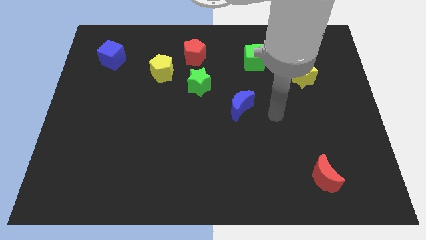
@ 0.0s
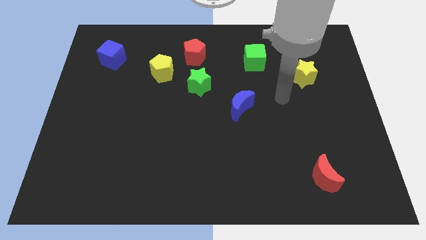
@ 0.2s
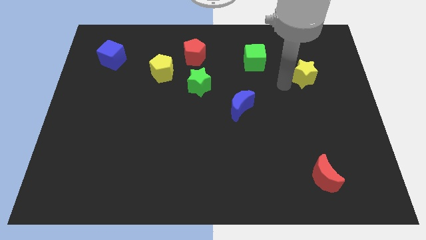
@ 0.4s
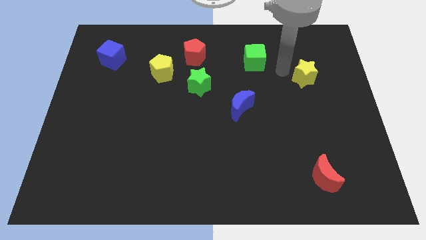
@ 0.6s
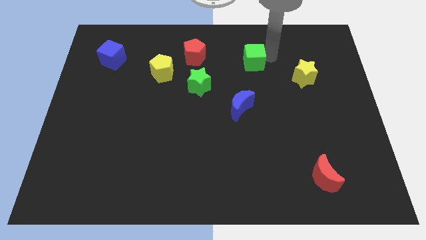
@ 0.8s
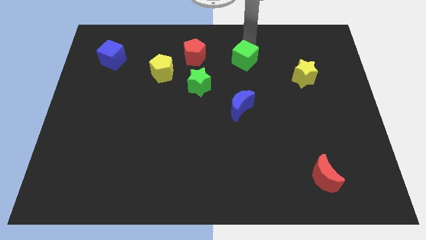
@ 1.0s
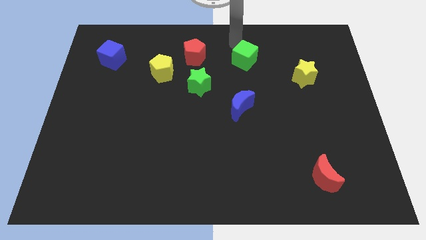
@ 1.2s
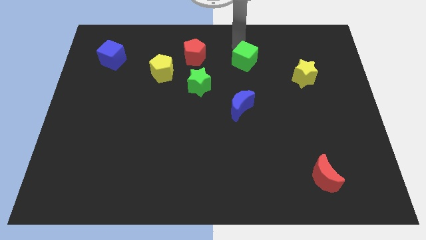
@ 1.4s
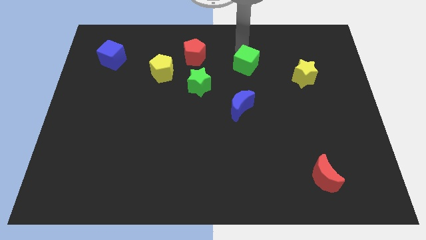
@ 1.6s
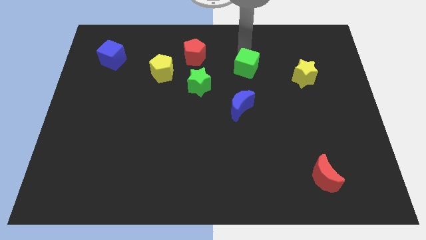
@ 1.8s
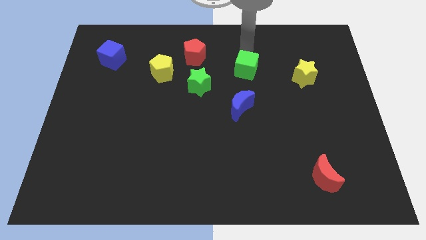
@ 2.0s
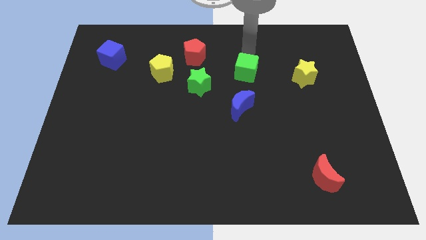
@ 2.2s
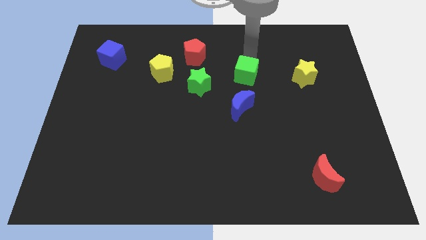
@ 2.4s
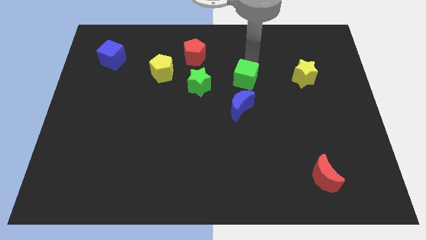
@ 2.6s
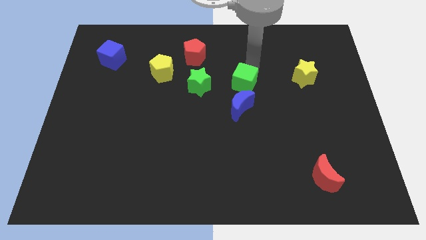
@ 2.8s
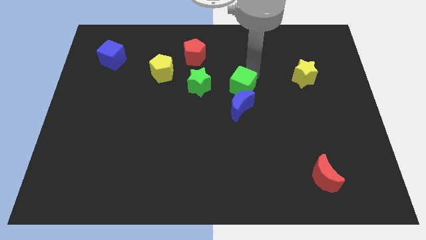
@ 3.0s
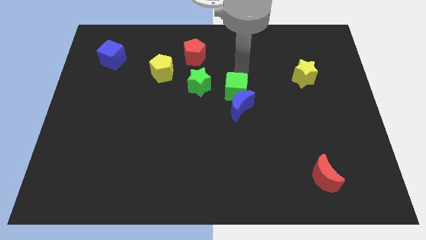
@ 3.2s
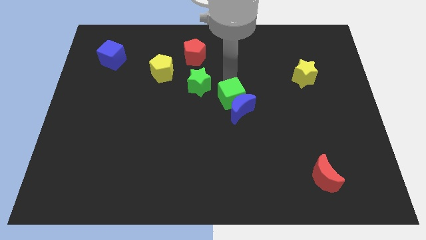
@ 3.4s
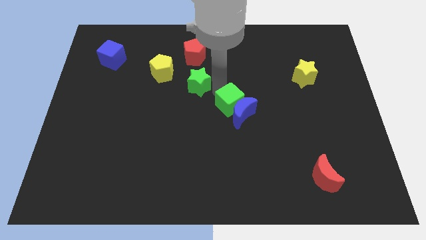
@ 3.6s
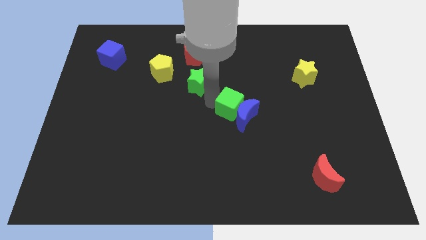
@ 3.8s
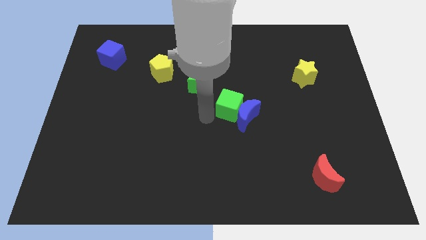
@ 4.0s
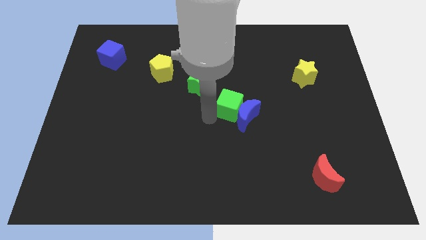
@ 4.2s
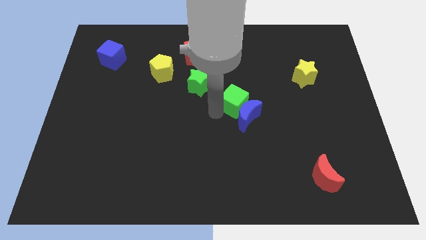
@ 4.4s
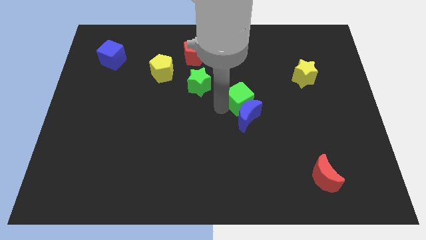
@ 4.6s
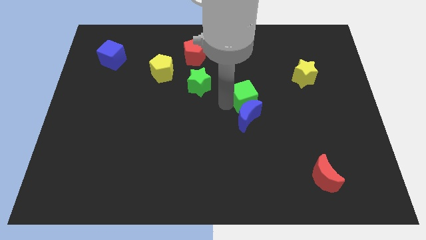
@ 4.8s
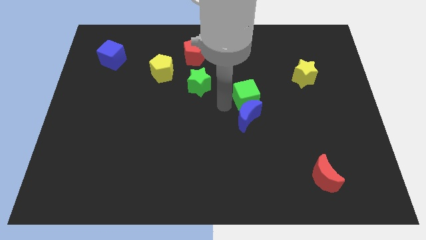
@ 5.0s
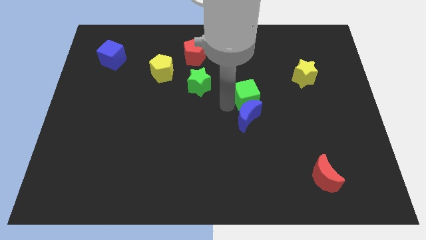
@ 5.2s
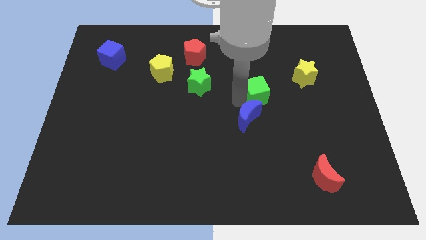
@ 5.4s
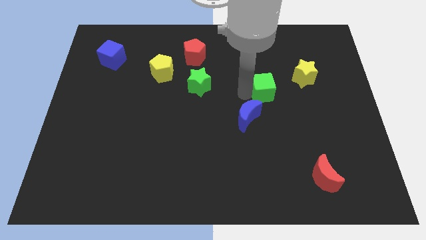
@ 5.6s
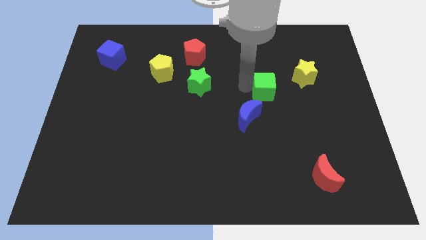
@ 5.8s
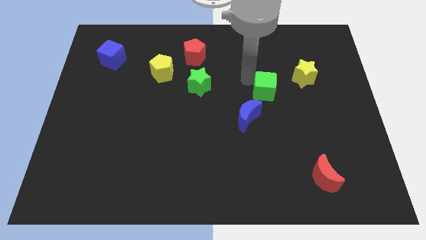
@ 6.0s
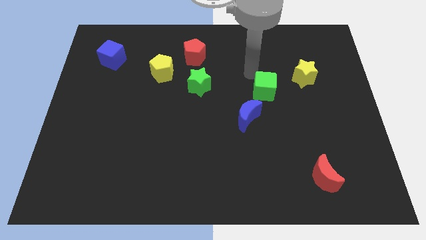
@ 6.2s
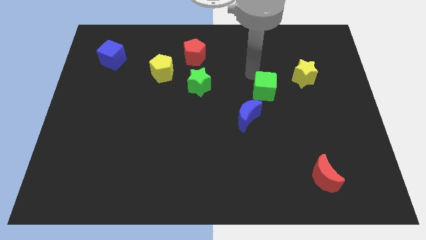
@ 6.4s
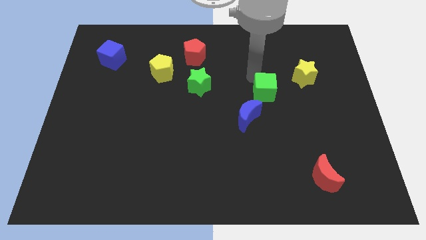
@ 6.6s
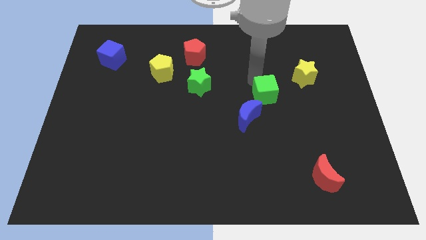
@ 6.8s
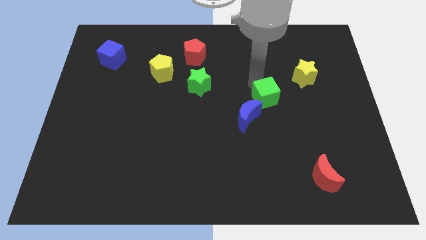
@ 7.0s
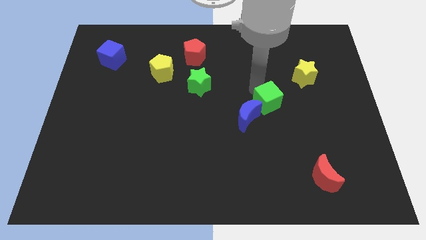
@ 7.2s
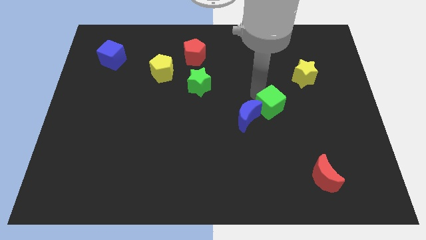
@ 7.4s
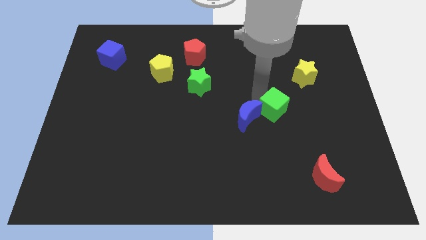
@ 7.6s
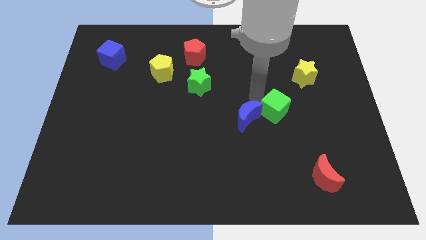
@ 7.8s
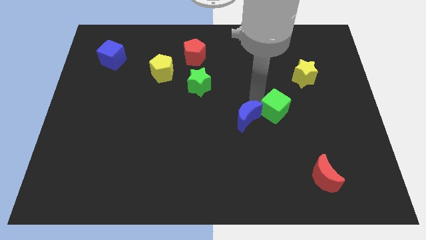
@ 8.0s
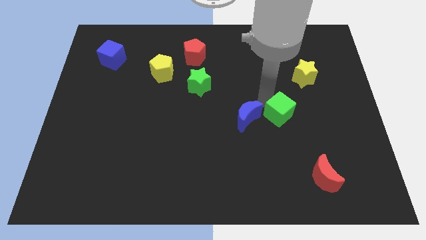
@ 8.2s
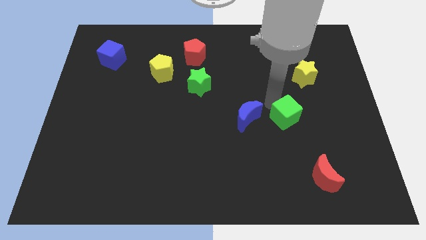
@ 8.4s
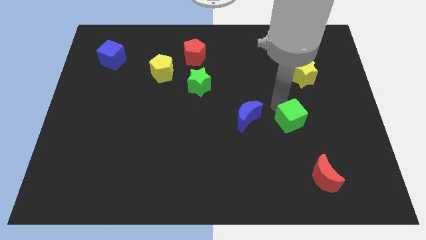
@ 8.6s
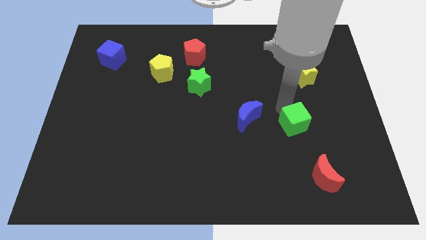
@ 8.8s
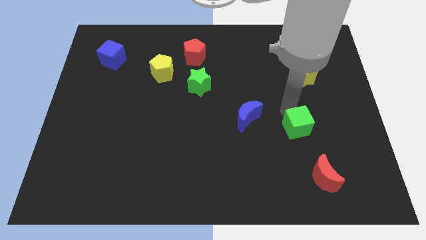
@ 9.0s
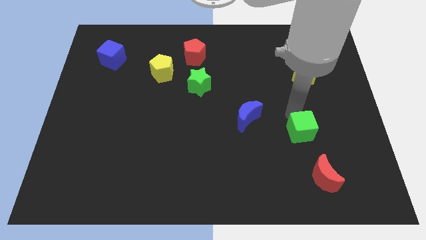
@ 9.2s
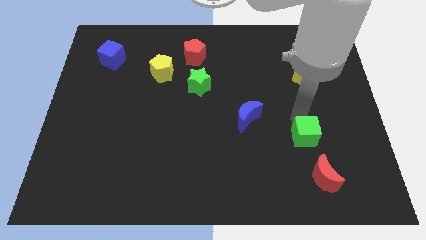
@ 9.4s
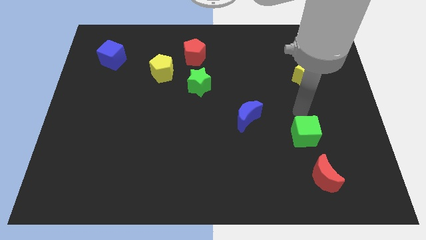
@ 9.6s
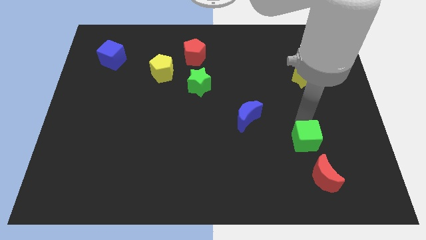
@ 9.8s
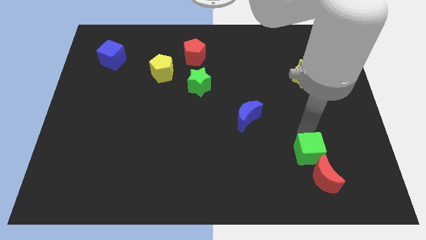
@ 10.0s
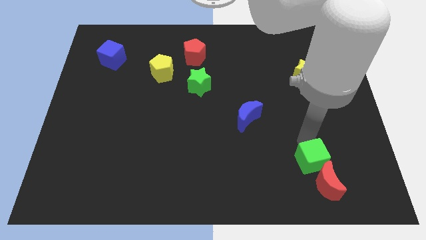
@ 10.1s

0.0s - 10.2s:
move the green cube close to the red moon

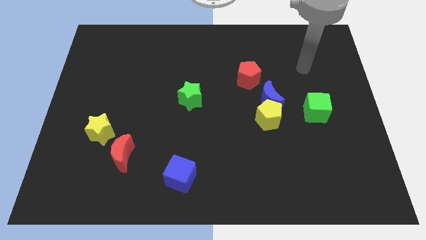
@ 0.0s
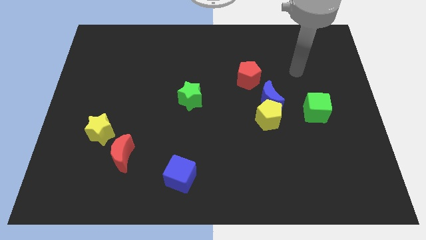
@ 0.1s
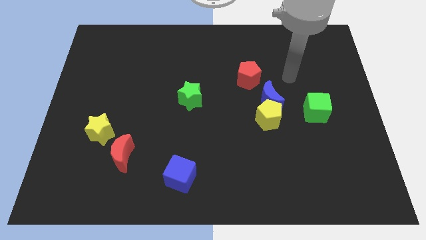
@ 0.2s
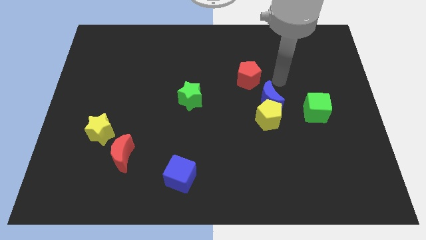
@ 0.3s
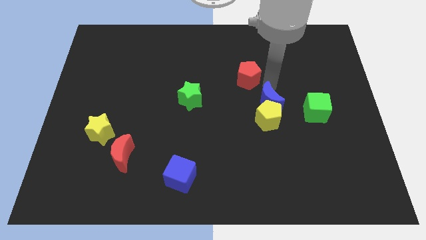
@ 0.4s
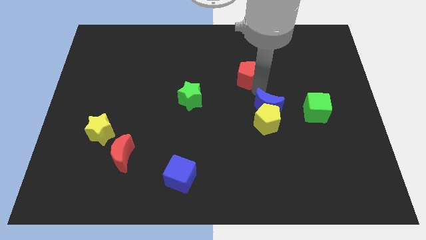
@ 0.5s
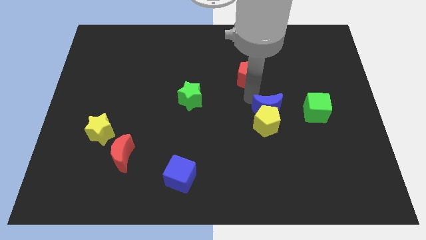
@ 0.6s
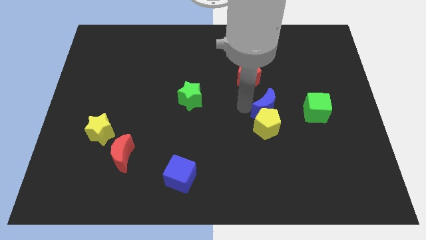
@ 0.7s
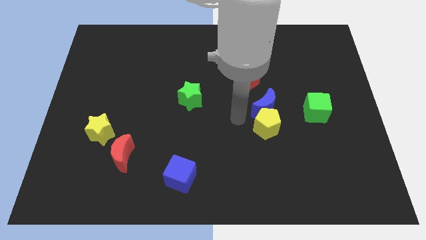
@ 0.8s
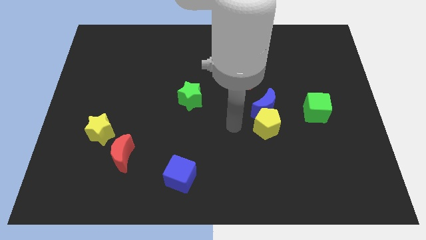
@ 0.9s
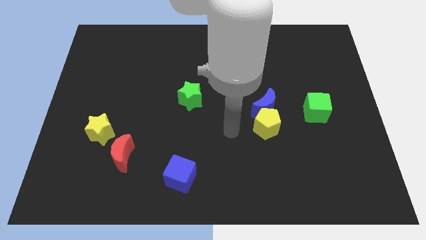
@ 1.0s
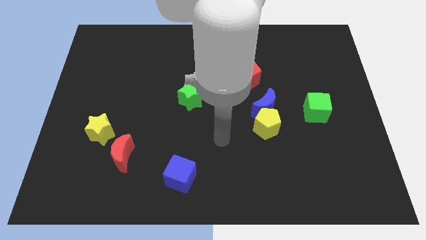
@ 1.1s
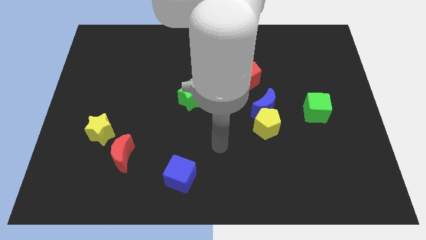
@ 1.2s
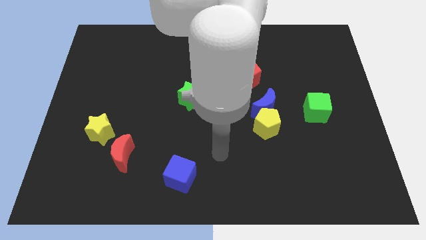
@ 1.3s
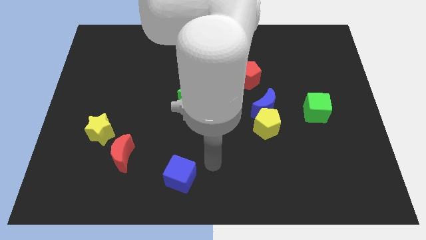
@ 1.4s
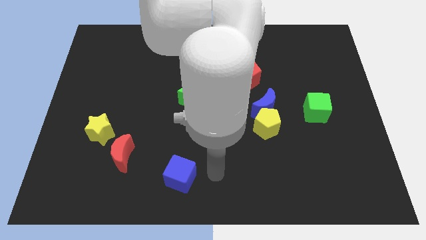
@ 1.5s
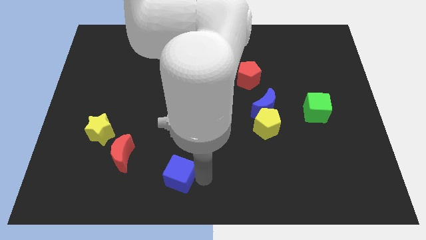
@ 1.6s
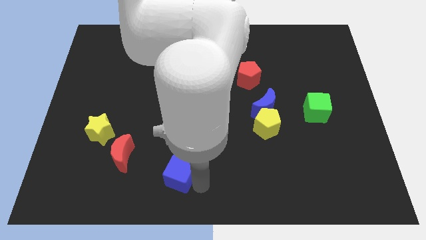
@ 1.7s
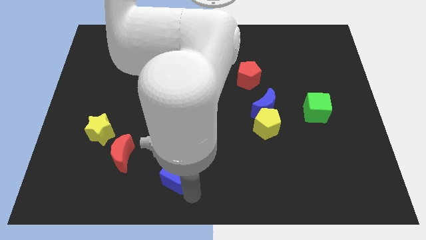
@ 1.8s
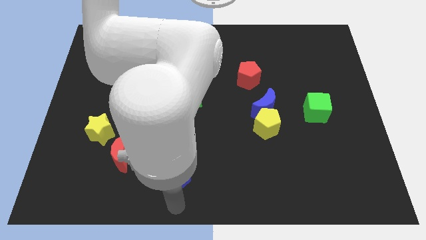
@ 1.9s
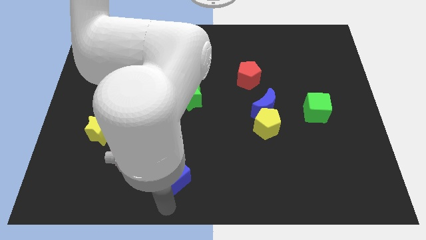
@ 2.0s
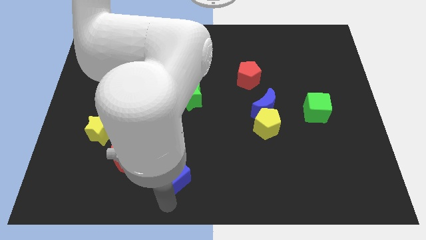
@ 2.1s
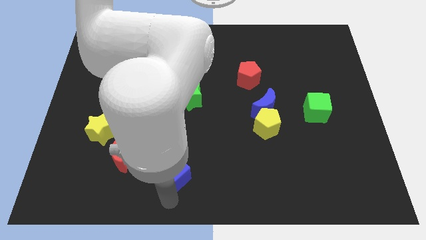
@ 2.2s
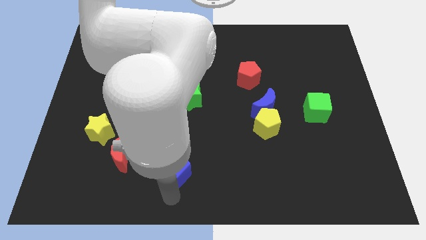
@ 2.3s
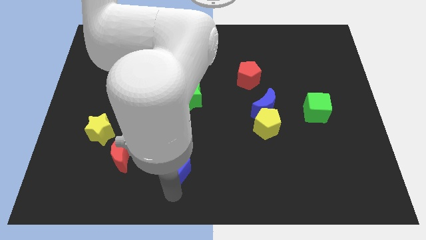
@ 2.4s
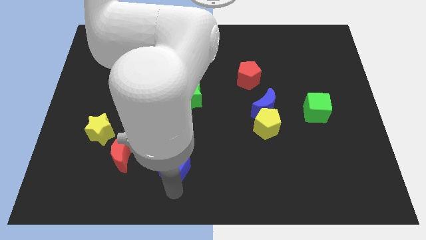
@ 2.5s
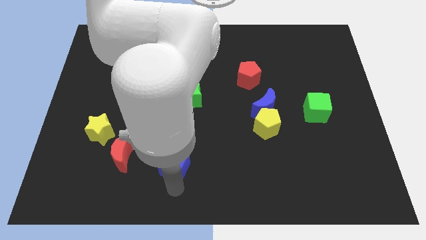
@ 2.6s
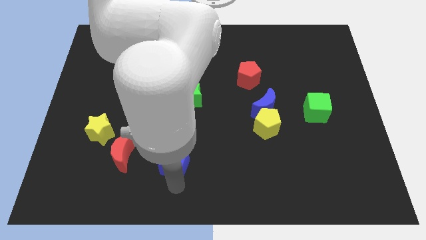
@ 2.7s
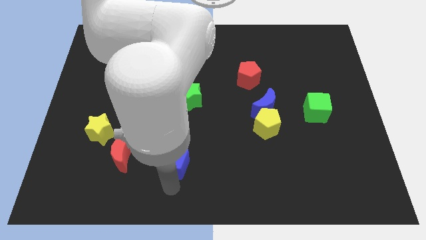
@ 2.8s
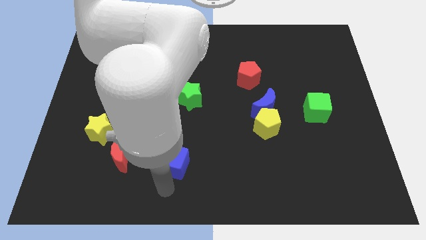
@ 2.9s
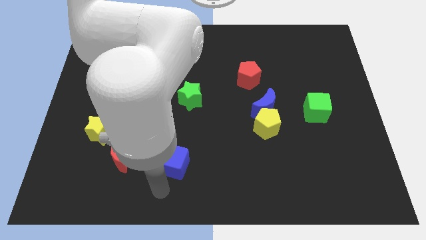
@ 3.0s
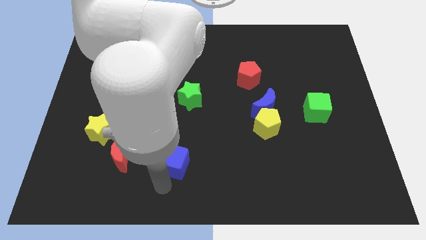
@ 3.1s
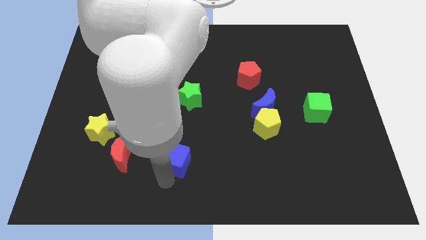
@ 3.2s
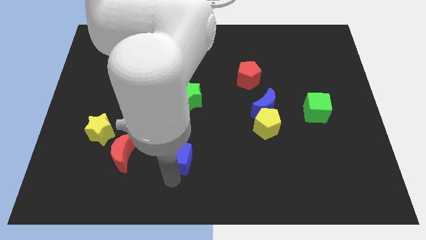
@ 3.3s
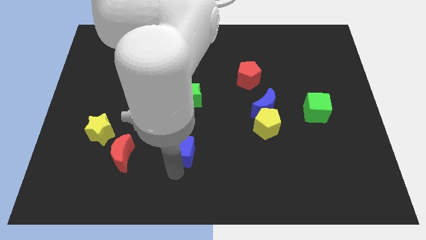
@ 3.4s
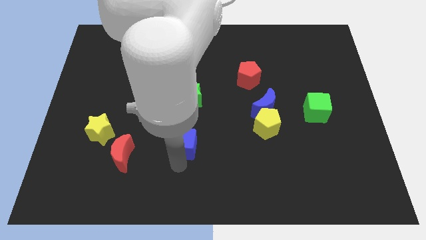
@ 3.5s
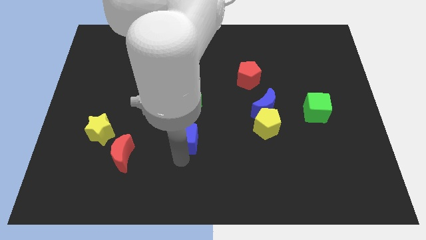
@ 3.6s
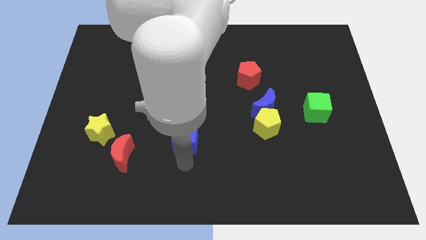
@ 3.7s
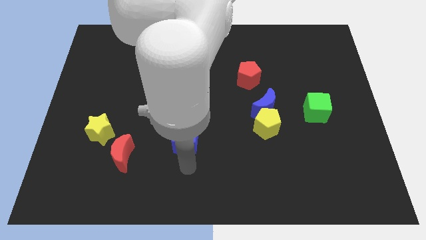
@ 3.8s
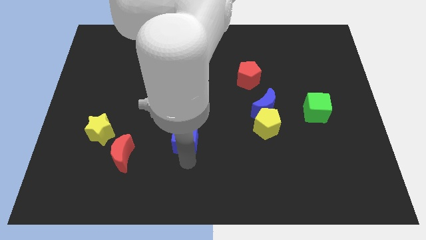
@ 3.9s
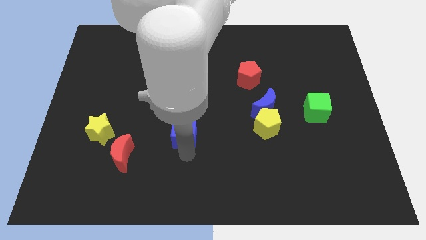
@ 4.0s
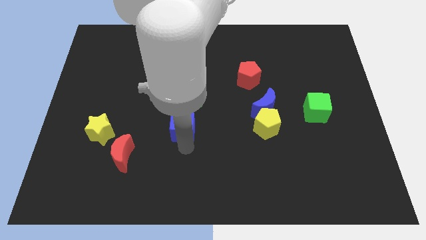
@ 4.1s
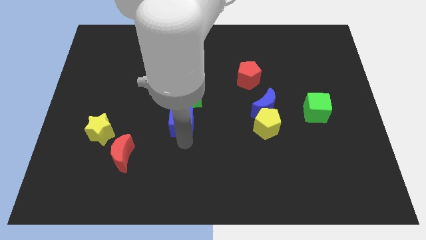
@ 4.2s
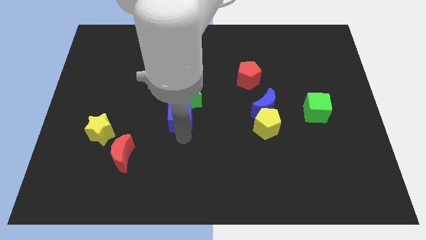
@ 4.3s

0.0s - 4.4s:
push the blue cube next to the green star
